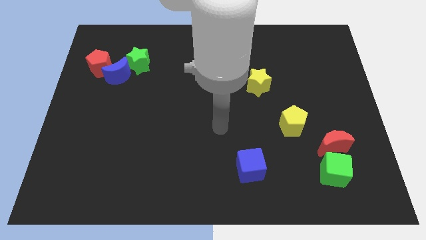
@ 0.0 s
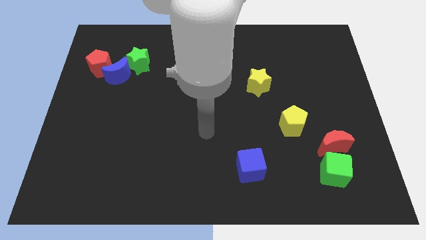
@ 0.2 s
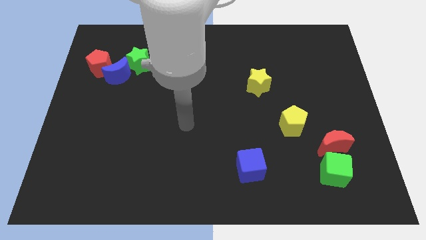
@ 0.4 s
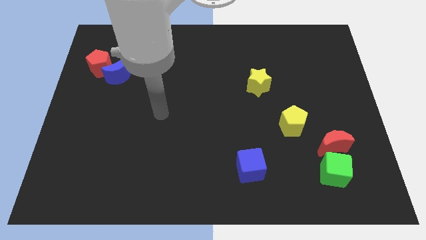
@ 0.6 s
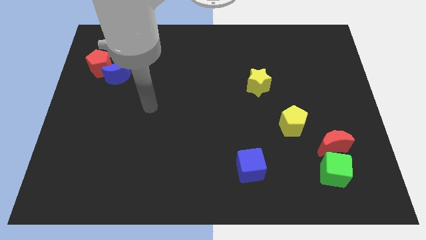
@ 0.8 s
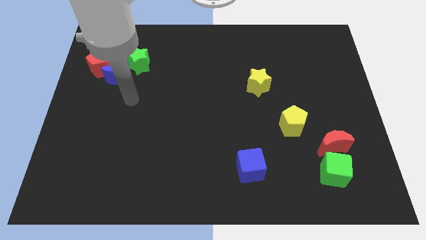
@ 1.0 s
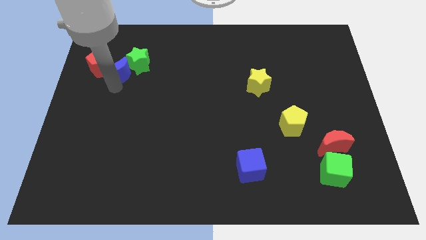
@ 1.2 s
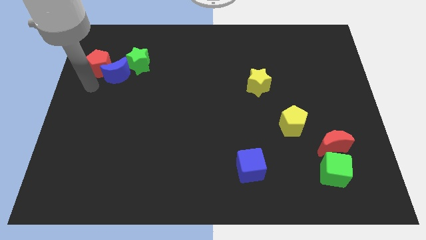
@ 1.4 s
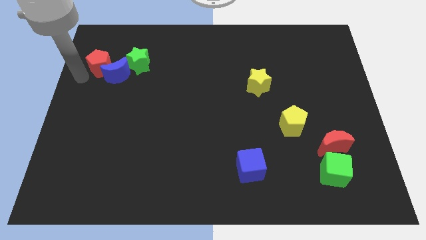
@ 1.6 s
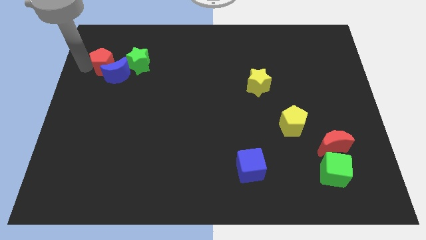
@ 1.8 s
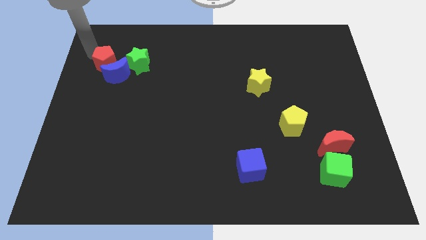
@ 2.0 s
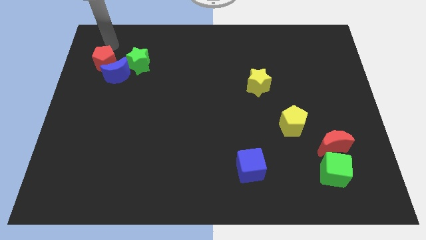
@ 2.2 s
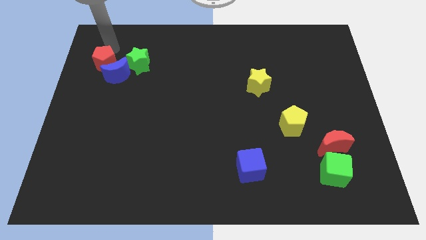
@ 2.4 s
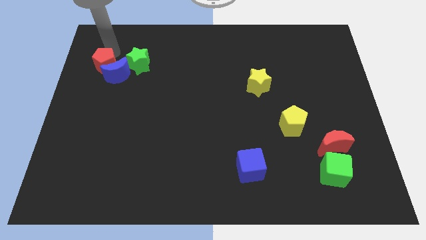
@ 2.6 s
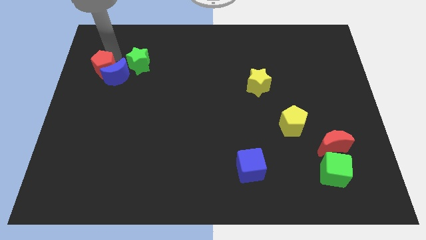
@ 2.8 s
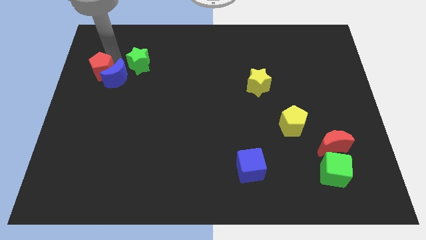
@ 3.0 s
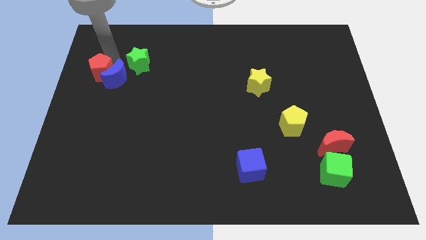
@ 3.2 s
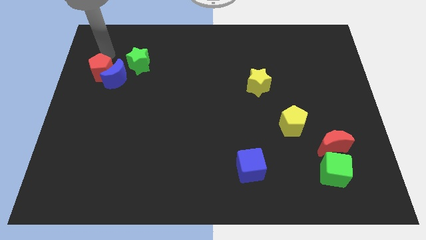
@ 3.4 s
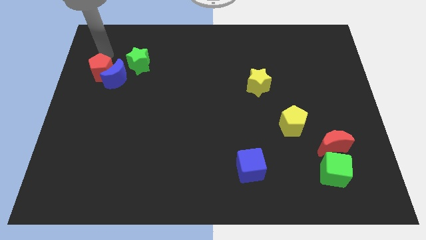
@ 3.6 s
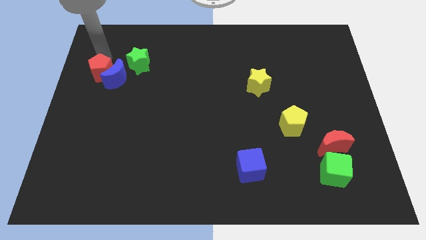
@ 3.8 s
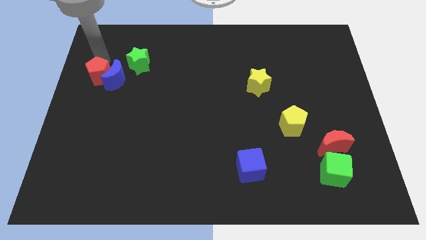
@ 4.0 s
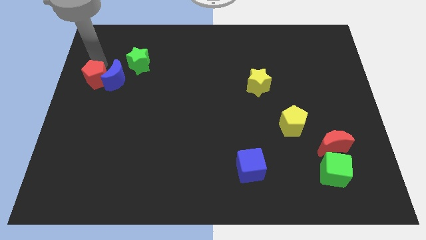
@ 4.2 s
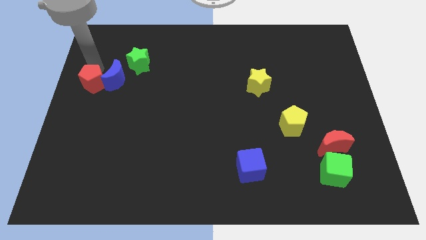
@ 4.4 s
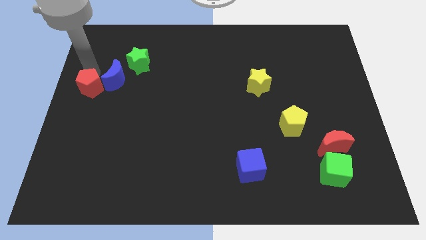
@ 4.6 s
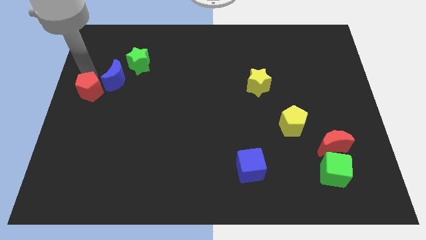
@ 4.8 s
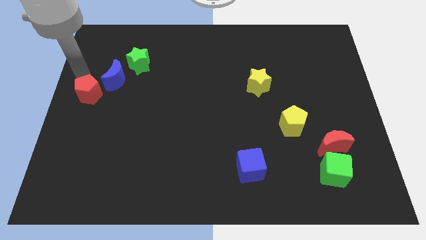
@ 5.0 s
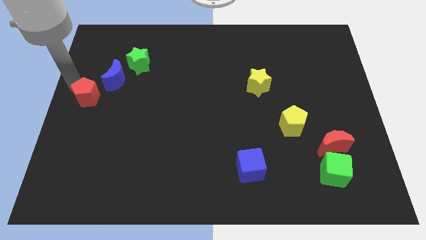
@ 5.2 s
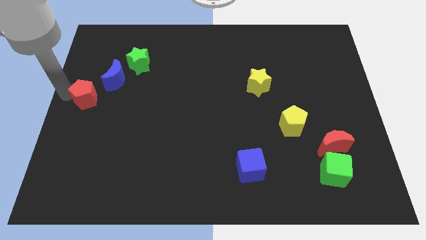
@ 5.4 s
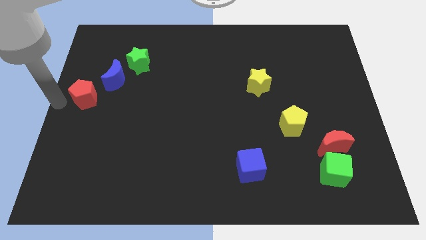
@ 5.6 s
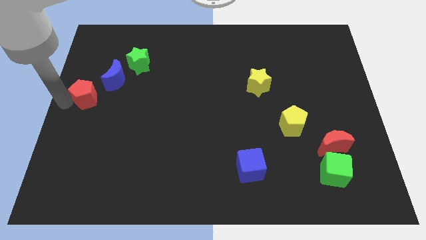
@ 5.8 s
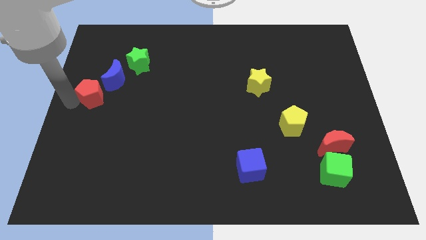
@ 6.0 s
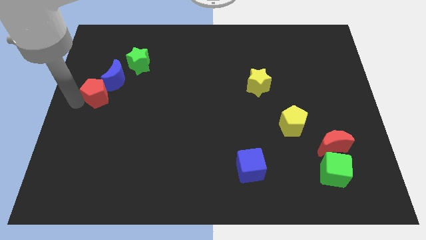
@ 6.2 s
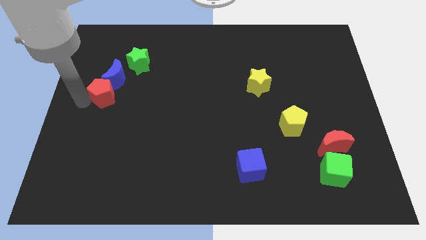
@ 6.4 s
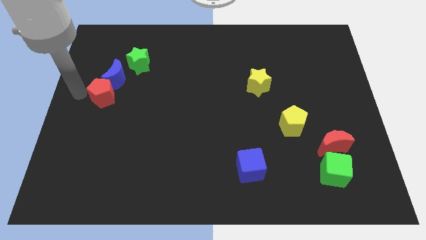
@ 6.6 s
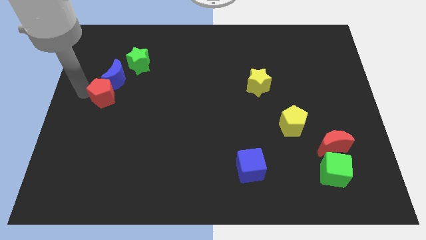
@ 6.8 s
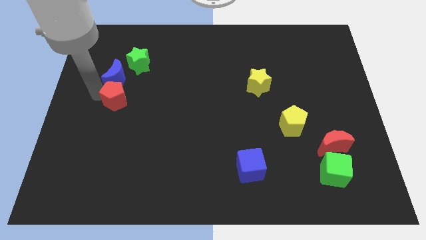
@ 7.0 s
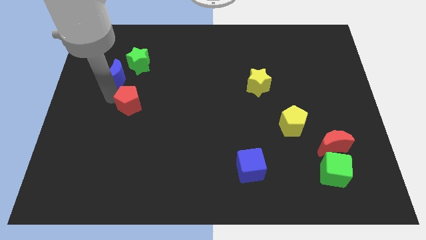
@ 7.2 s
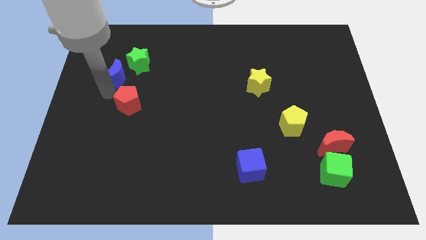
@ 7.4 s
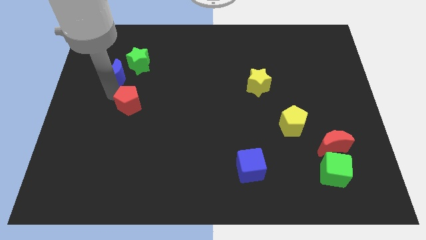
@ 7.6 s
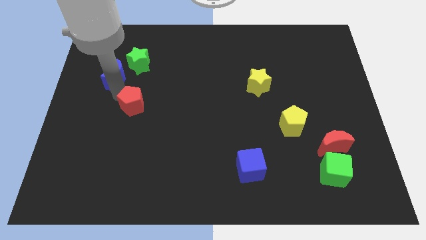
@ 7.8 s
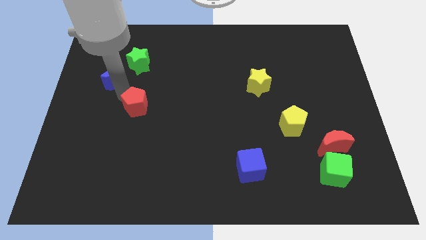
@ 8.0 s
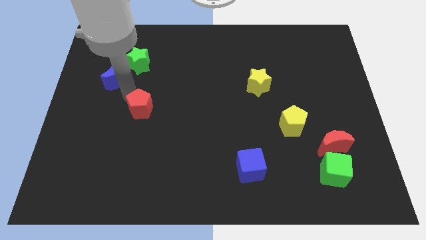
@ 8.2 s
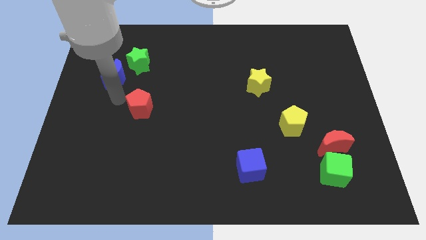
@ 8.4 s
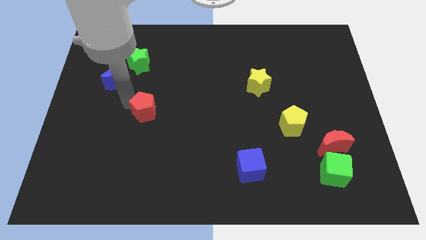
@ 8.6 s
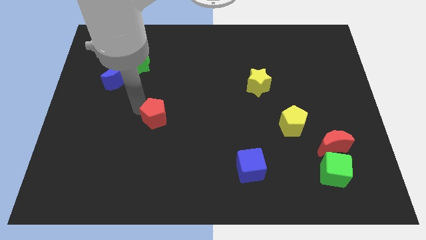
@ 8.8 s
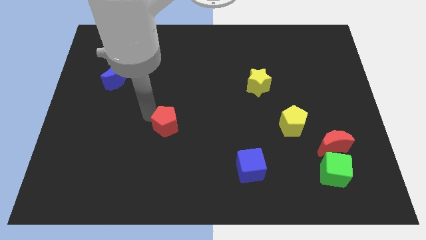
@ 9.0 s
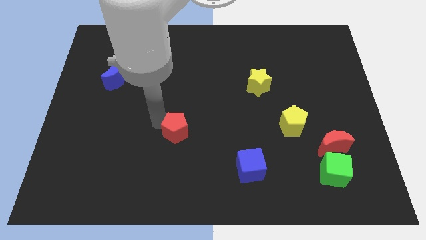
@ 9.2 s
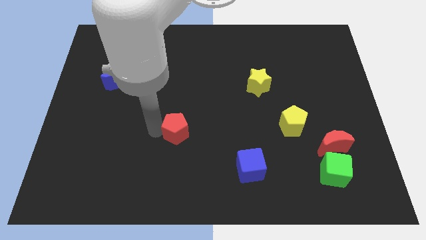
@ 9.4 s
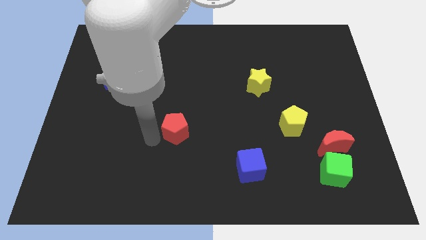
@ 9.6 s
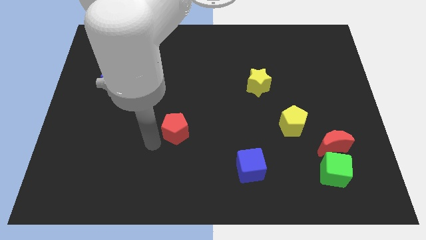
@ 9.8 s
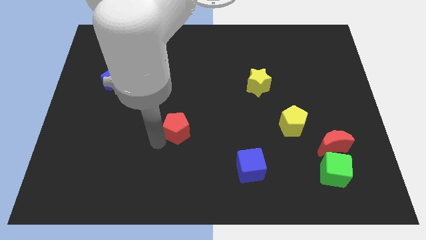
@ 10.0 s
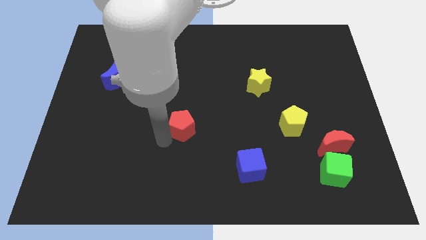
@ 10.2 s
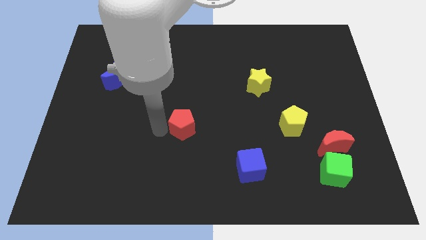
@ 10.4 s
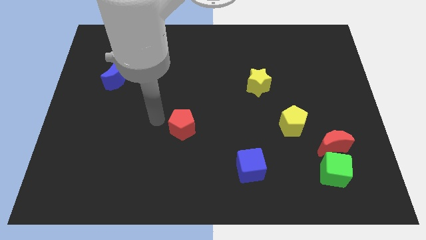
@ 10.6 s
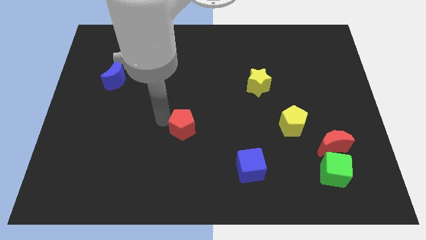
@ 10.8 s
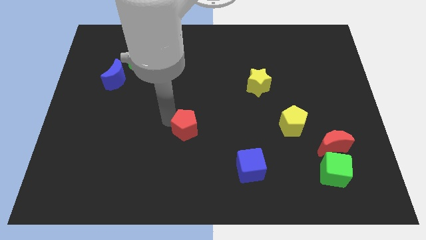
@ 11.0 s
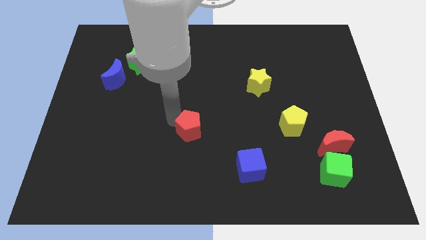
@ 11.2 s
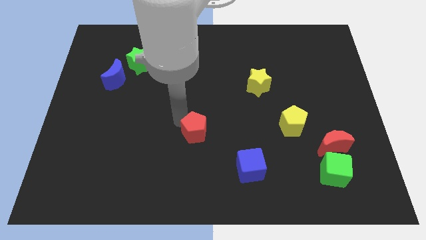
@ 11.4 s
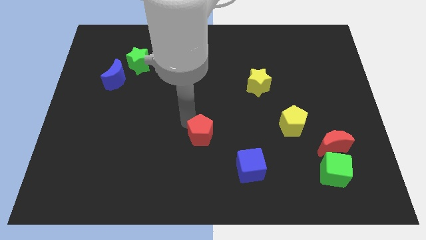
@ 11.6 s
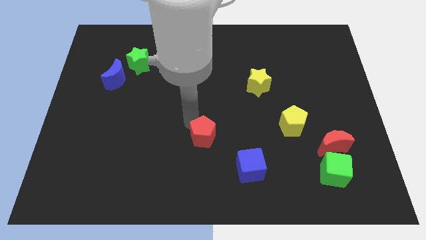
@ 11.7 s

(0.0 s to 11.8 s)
slide the red pentagon to the top left of the blue cube

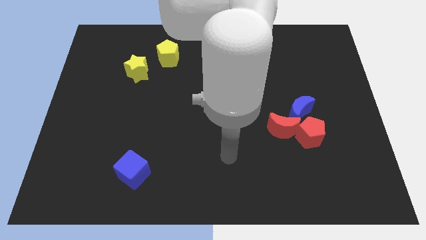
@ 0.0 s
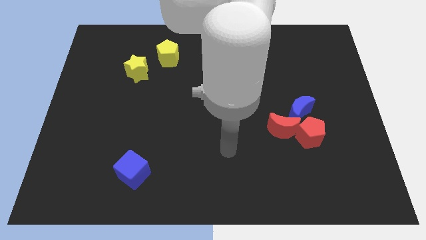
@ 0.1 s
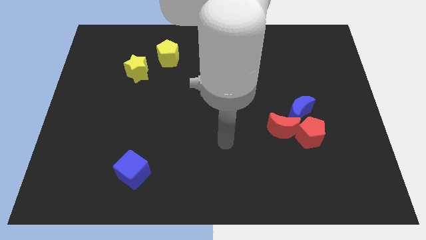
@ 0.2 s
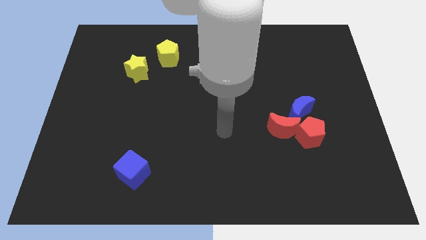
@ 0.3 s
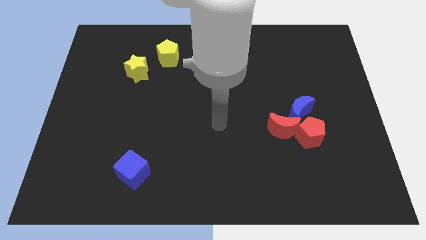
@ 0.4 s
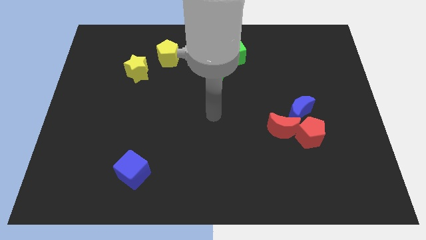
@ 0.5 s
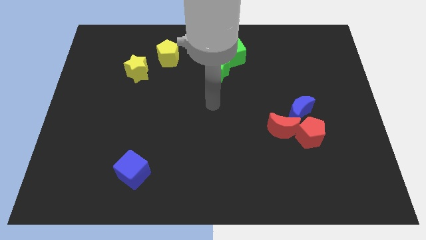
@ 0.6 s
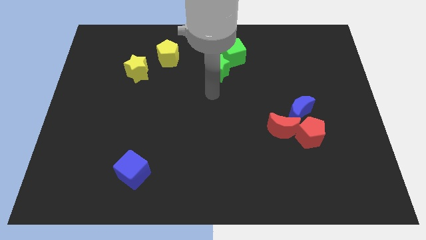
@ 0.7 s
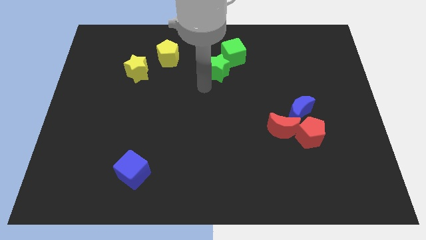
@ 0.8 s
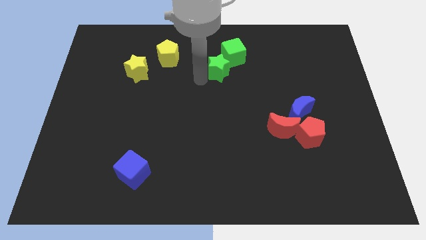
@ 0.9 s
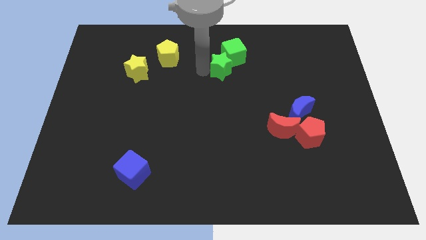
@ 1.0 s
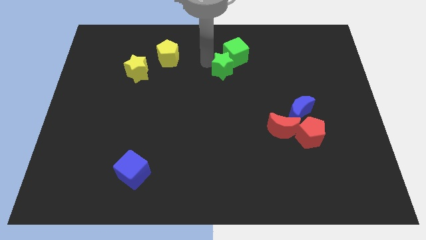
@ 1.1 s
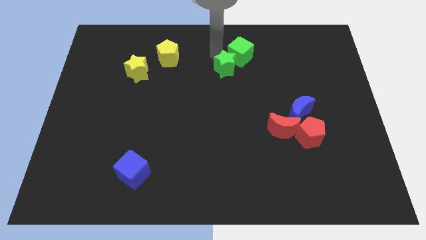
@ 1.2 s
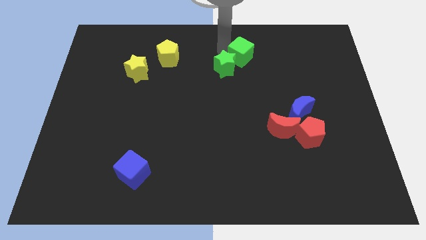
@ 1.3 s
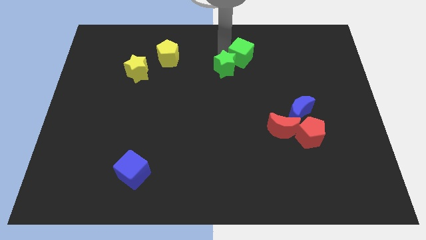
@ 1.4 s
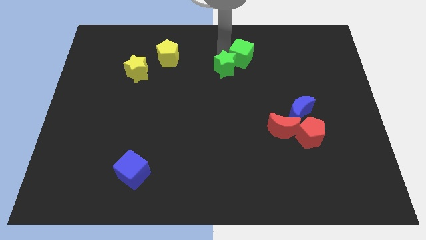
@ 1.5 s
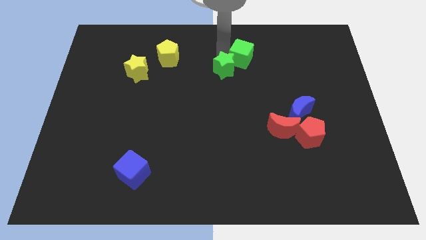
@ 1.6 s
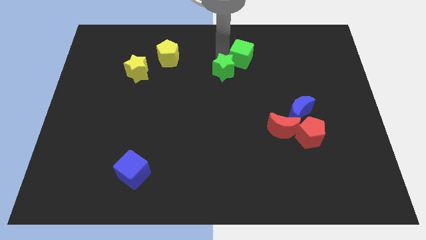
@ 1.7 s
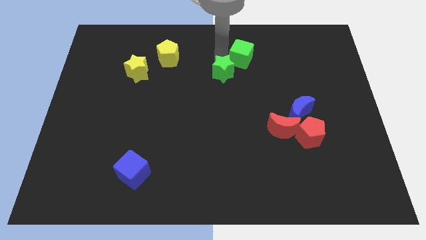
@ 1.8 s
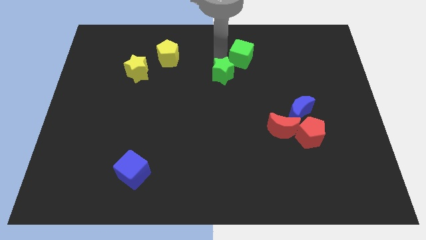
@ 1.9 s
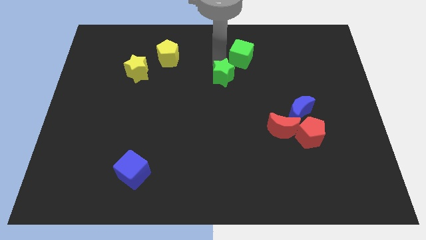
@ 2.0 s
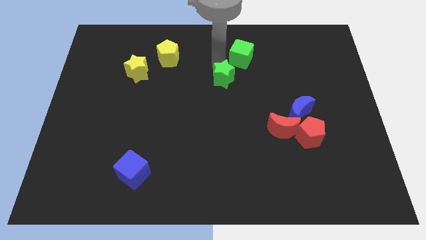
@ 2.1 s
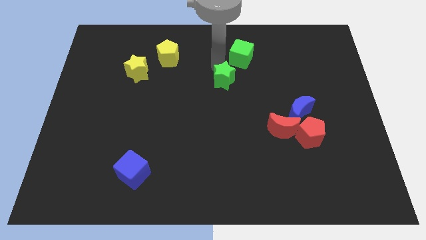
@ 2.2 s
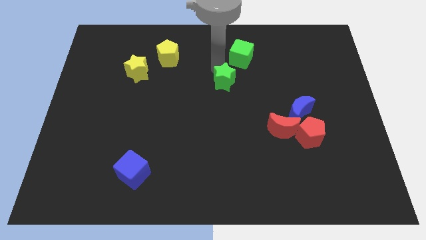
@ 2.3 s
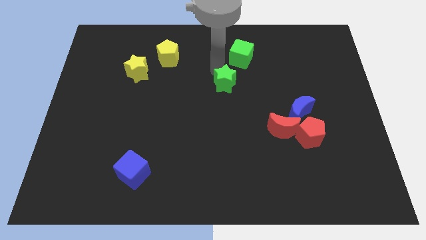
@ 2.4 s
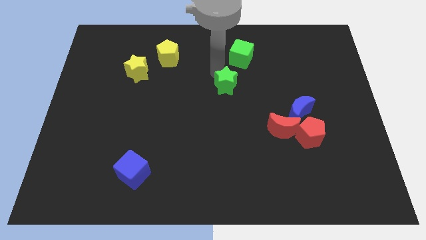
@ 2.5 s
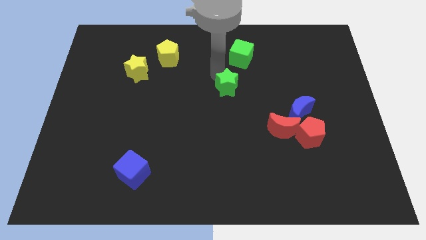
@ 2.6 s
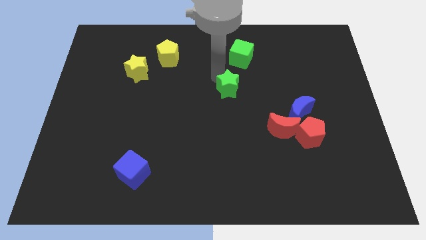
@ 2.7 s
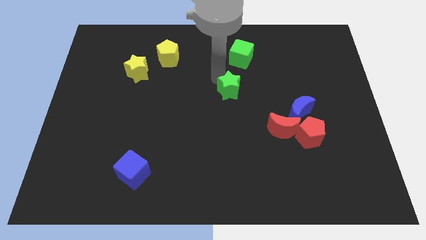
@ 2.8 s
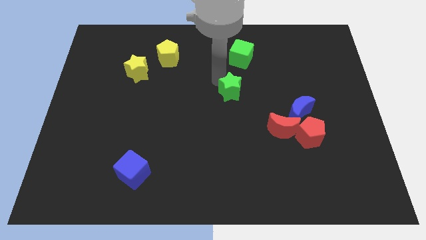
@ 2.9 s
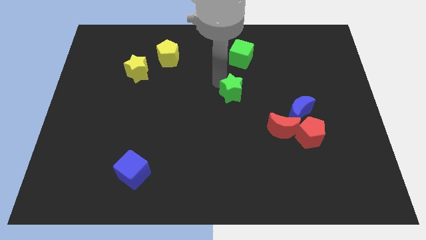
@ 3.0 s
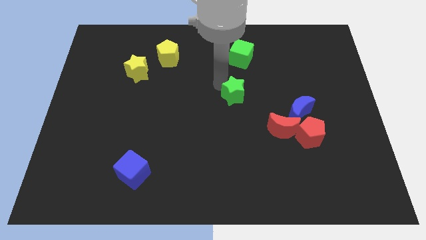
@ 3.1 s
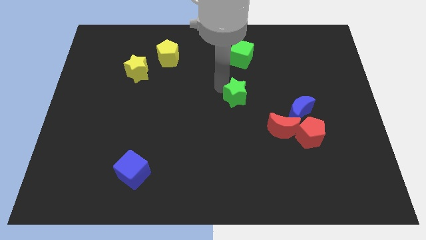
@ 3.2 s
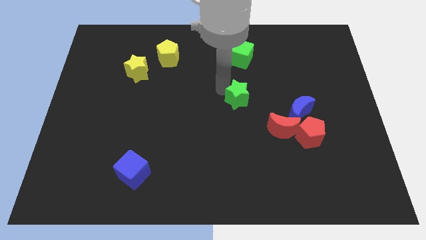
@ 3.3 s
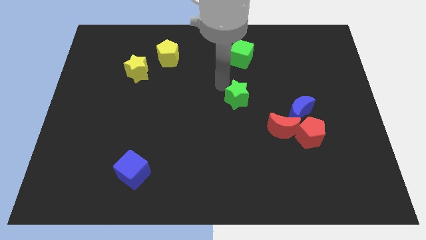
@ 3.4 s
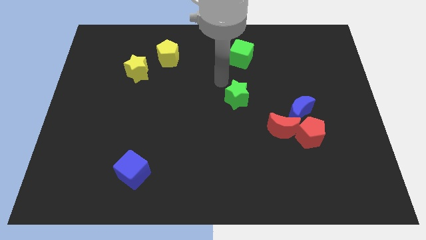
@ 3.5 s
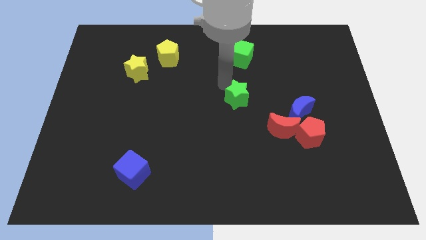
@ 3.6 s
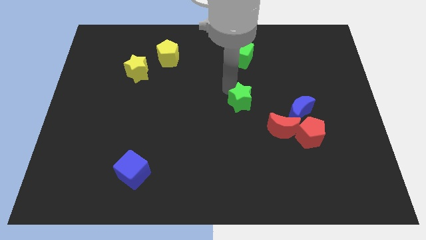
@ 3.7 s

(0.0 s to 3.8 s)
put the green star left of the blue moon
